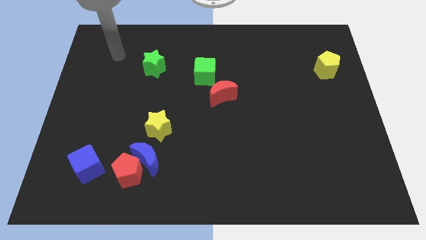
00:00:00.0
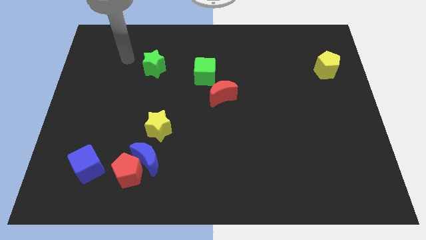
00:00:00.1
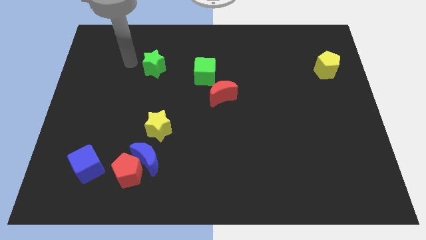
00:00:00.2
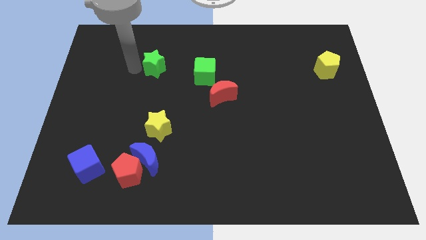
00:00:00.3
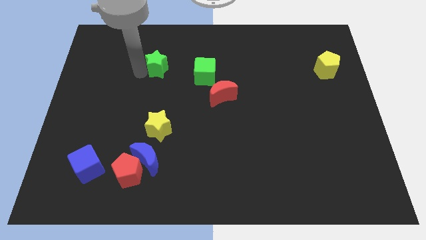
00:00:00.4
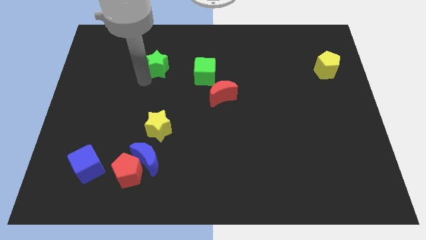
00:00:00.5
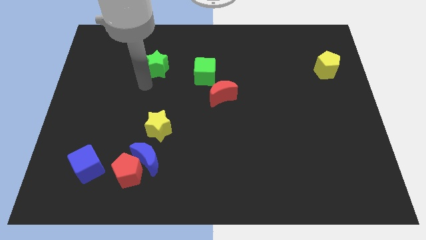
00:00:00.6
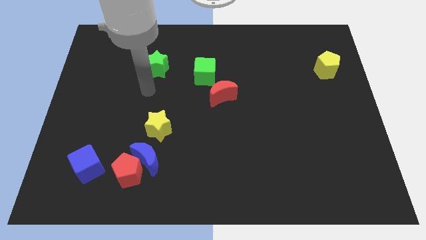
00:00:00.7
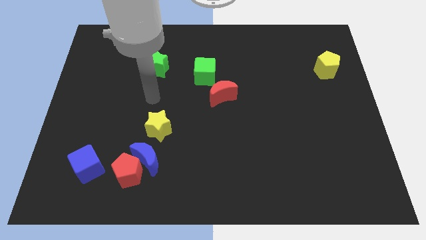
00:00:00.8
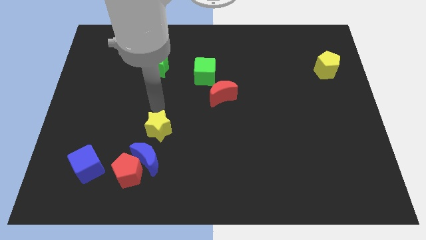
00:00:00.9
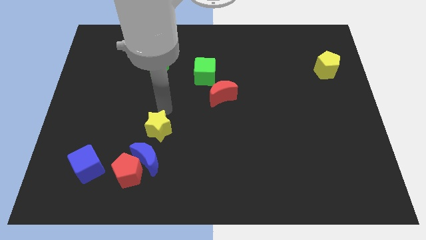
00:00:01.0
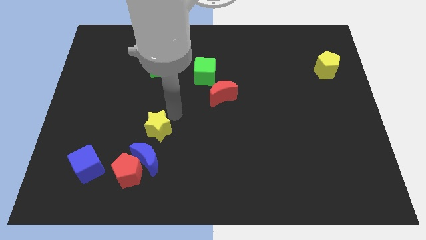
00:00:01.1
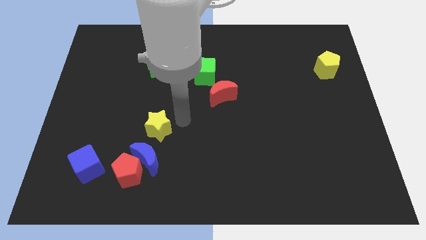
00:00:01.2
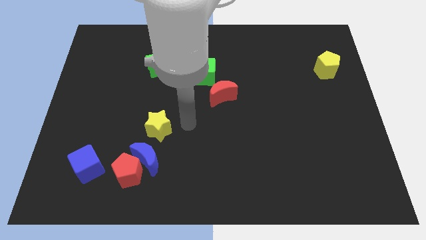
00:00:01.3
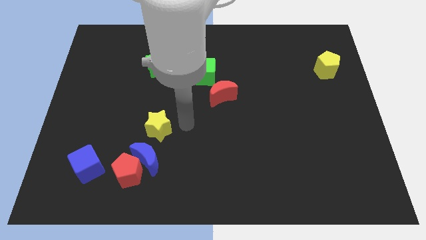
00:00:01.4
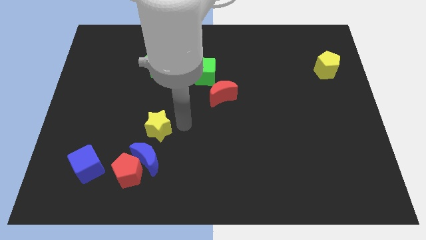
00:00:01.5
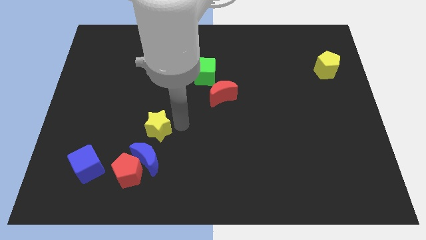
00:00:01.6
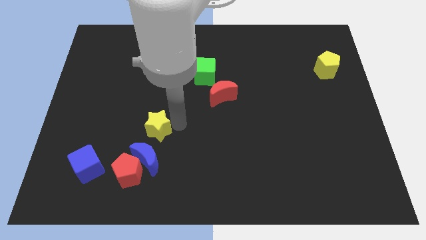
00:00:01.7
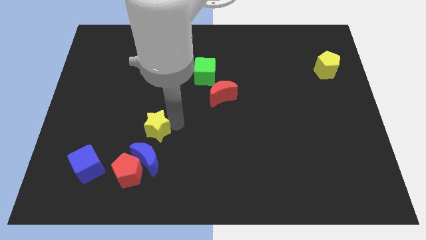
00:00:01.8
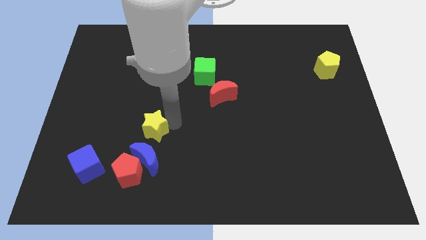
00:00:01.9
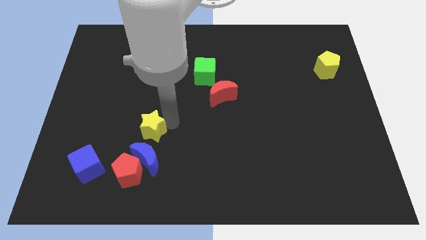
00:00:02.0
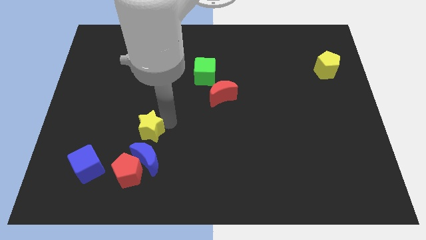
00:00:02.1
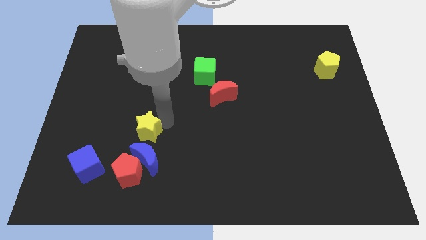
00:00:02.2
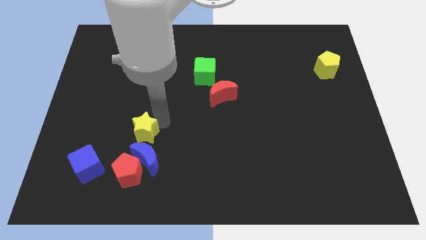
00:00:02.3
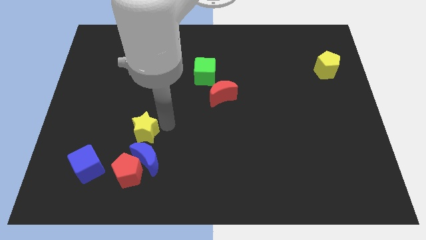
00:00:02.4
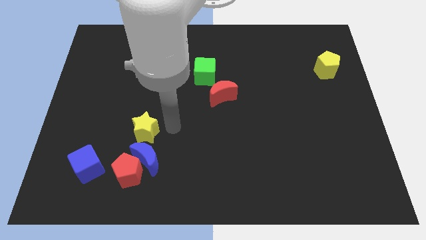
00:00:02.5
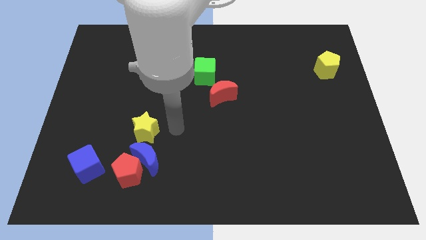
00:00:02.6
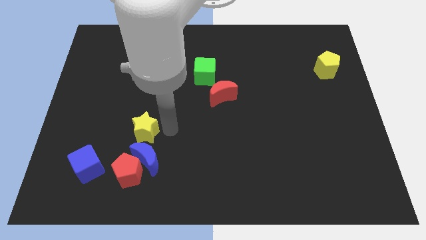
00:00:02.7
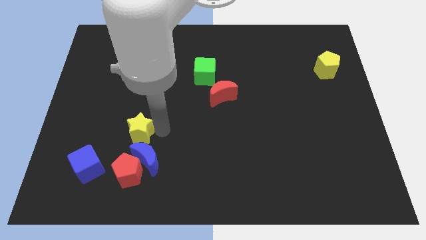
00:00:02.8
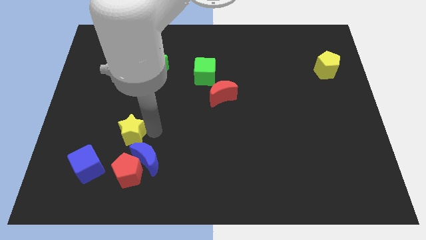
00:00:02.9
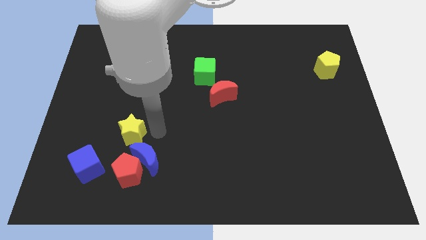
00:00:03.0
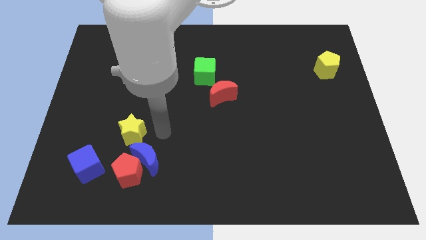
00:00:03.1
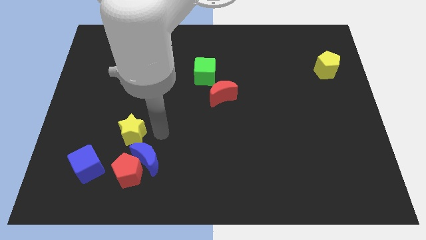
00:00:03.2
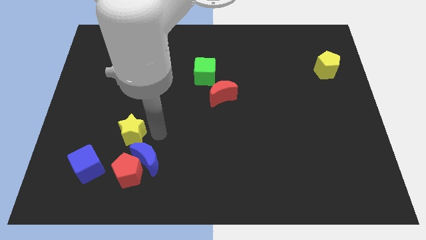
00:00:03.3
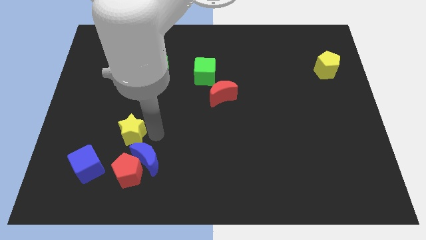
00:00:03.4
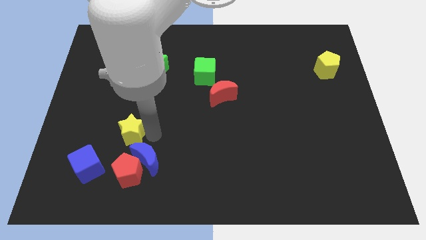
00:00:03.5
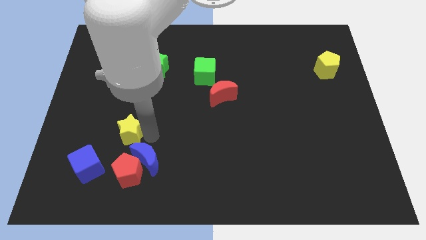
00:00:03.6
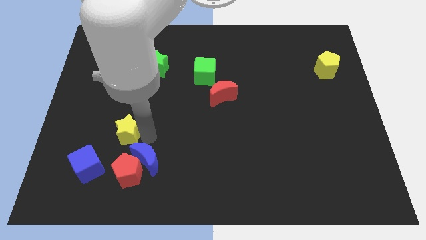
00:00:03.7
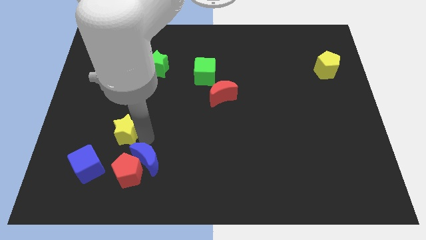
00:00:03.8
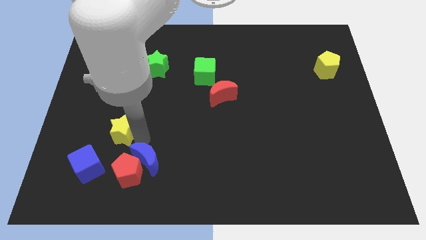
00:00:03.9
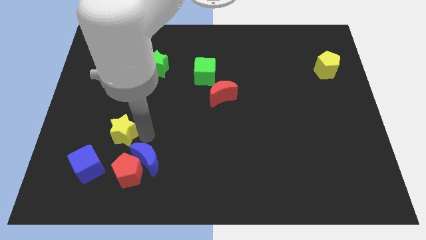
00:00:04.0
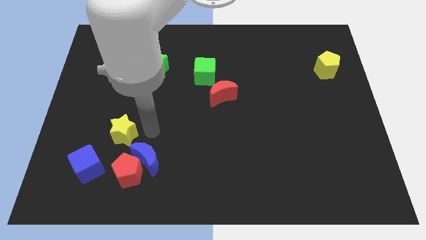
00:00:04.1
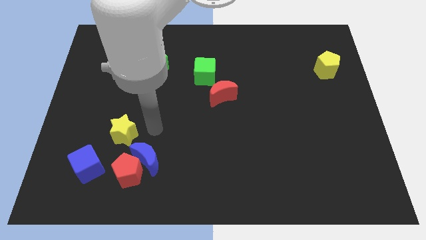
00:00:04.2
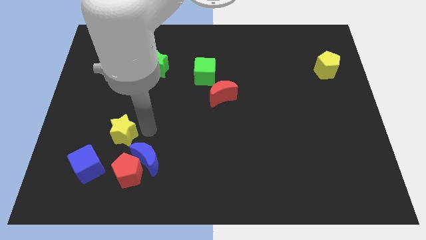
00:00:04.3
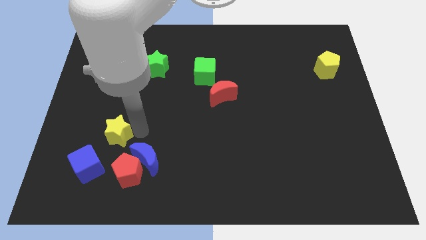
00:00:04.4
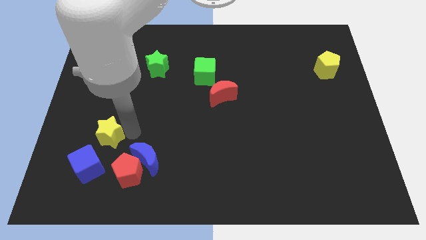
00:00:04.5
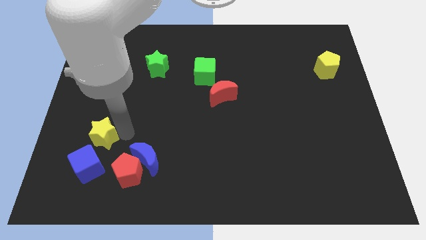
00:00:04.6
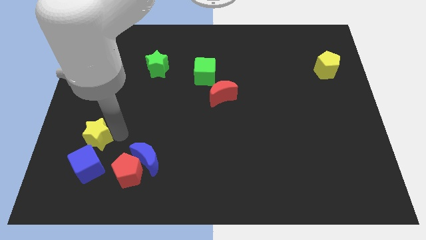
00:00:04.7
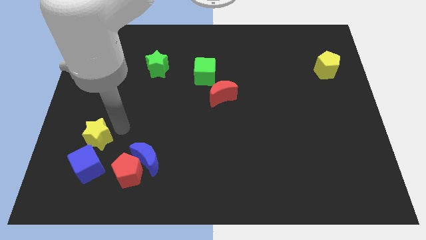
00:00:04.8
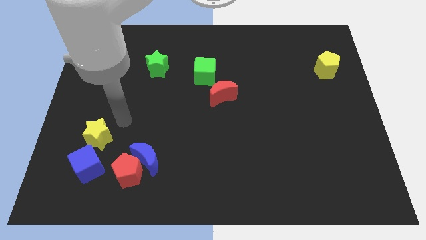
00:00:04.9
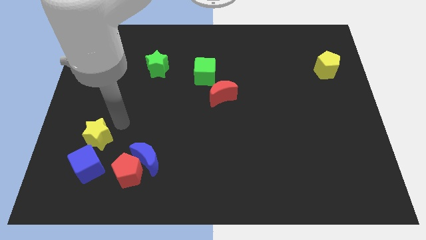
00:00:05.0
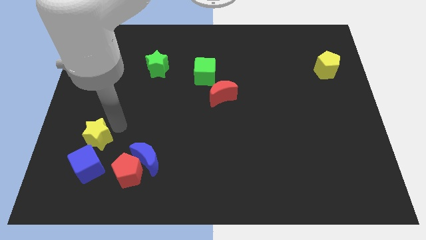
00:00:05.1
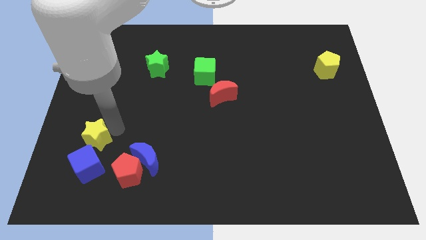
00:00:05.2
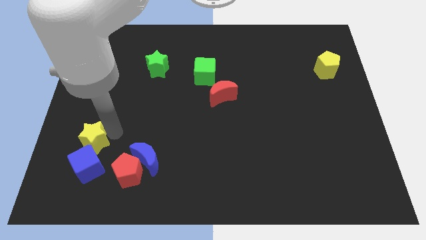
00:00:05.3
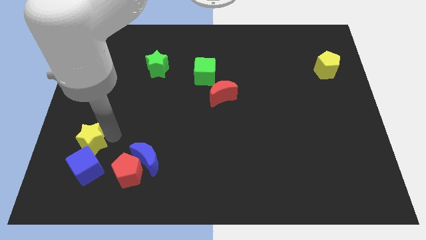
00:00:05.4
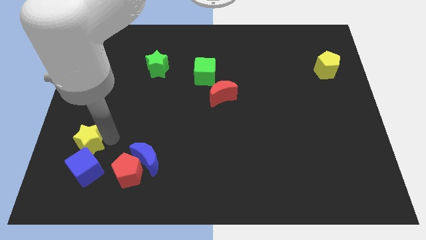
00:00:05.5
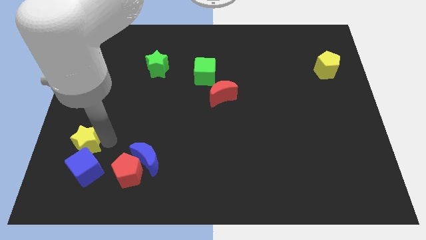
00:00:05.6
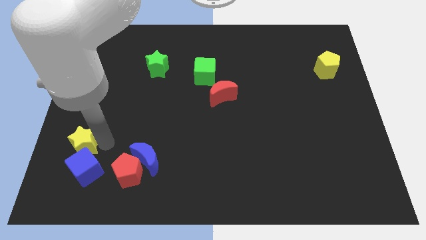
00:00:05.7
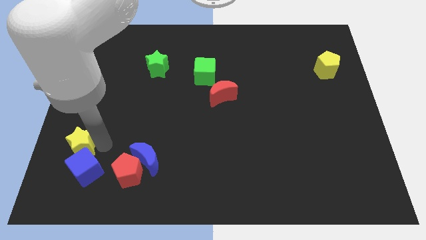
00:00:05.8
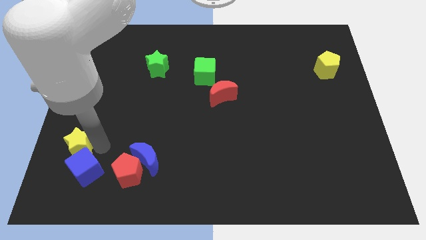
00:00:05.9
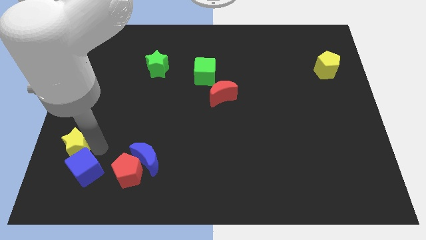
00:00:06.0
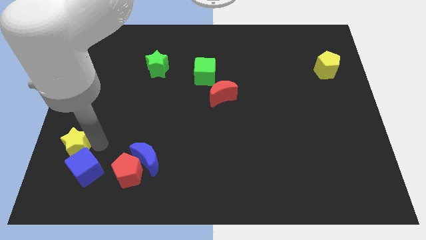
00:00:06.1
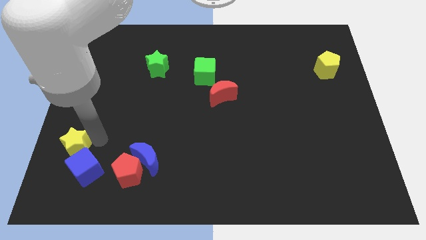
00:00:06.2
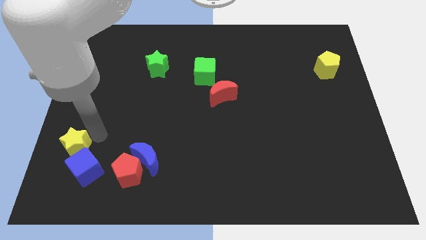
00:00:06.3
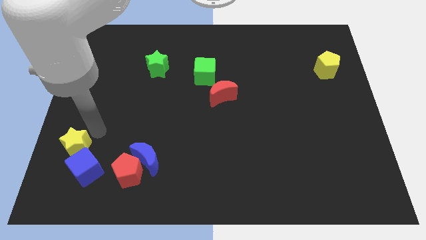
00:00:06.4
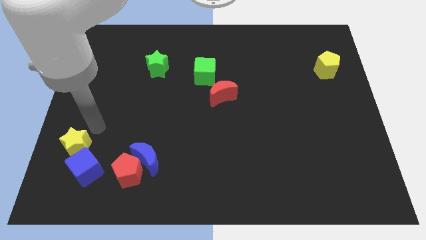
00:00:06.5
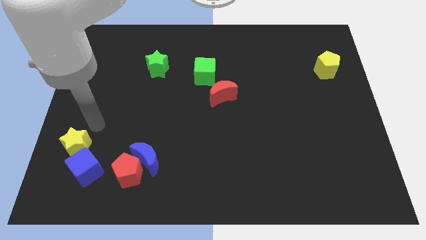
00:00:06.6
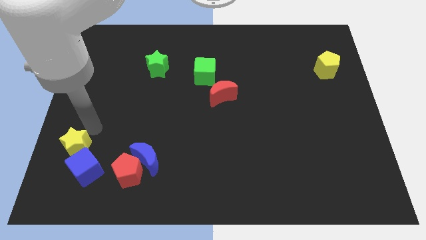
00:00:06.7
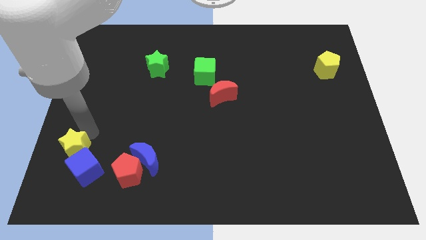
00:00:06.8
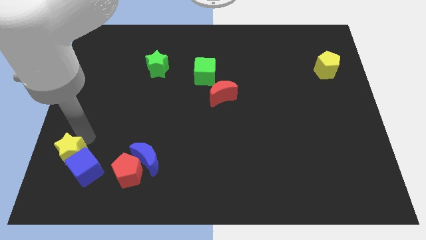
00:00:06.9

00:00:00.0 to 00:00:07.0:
push the yellow star to the left of the red pentagon
